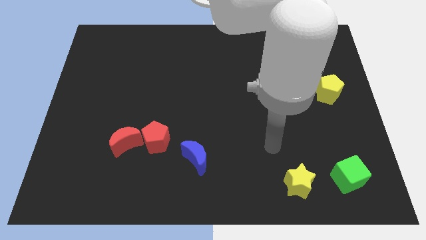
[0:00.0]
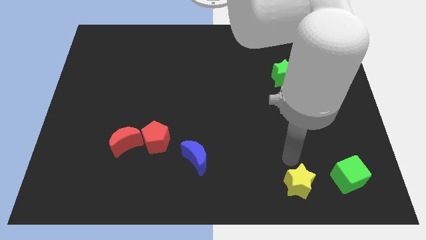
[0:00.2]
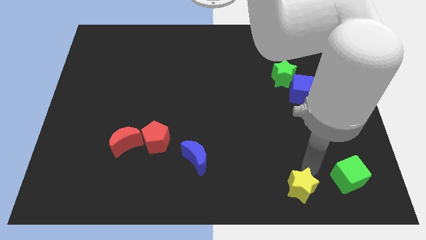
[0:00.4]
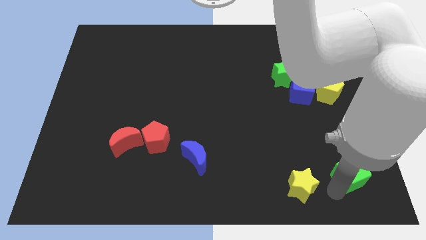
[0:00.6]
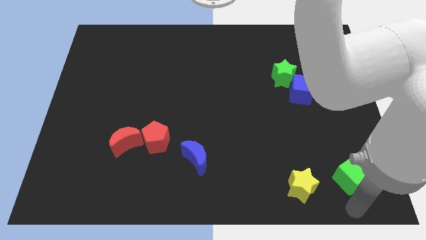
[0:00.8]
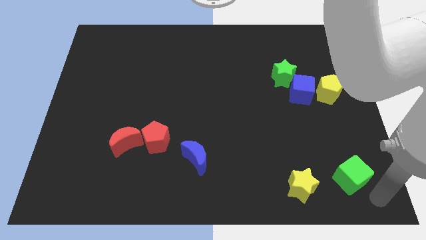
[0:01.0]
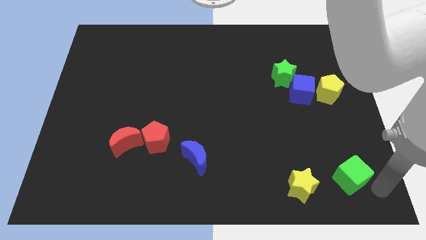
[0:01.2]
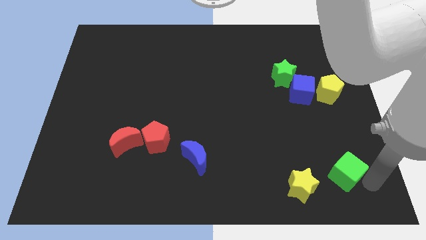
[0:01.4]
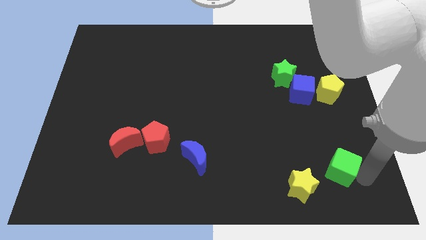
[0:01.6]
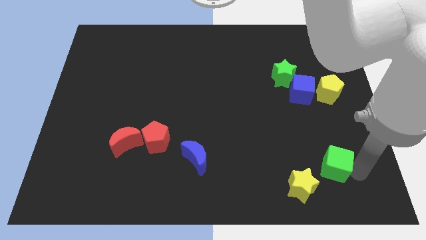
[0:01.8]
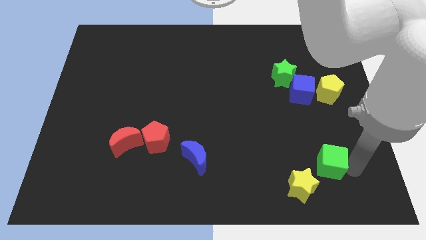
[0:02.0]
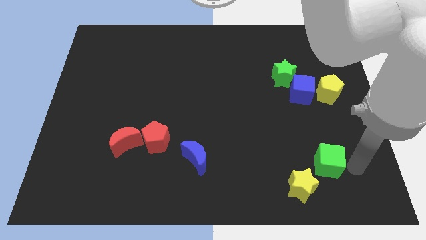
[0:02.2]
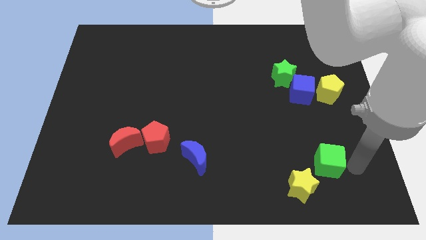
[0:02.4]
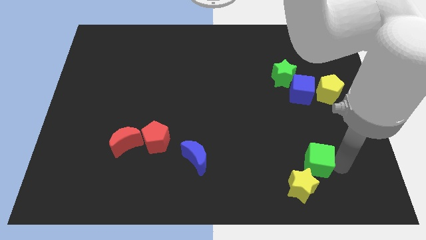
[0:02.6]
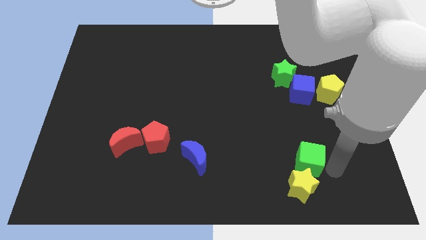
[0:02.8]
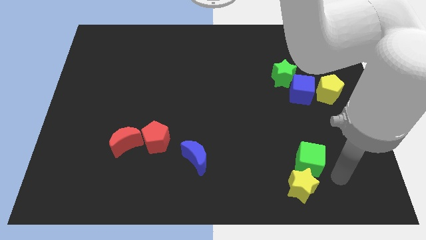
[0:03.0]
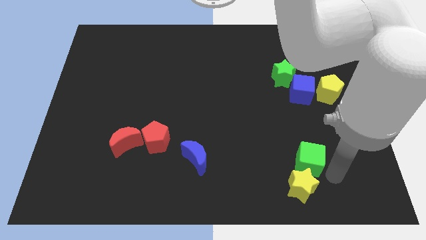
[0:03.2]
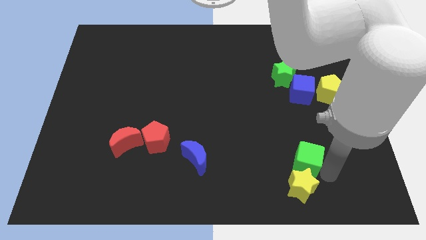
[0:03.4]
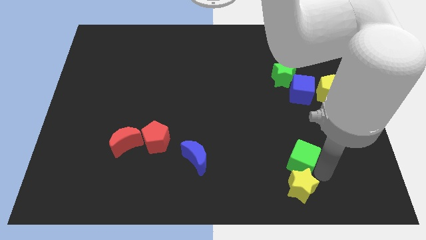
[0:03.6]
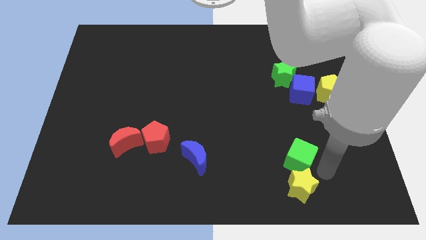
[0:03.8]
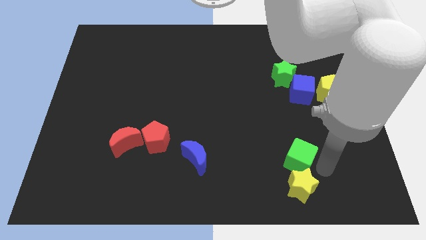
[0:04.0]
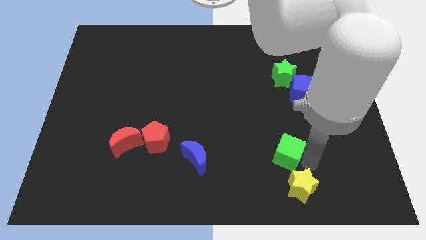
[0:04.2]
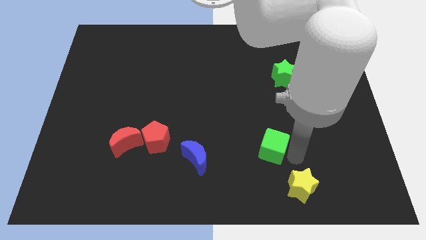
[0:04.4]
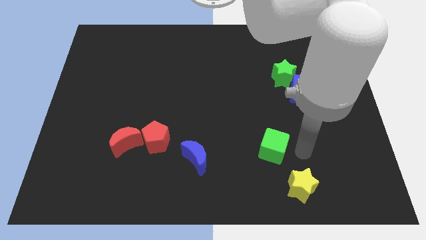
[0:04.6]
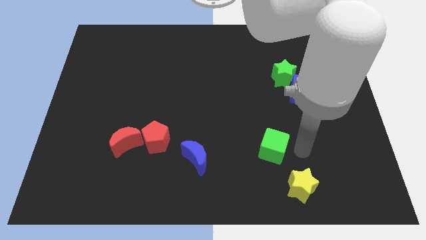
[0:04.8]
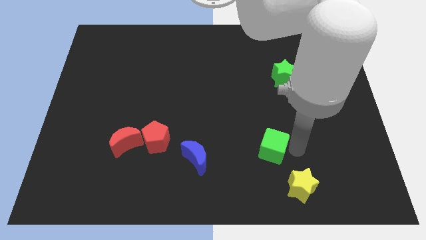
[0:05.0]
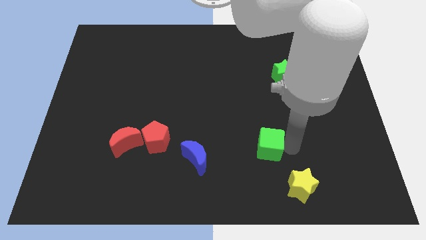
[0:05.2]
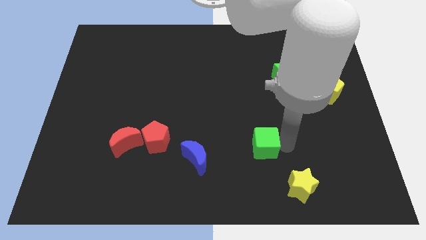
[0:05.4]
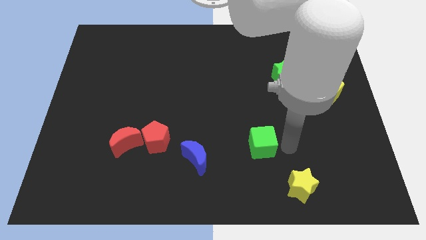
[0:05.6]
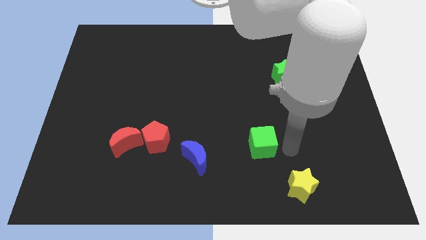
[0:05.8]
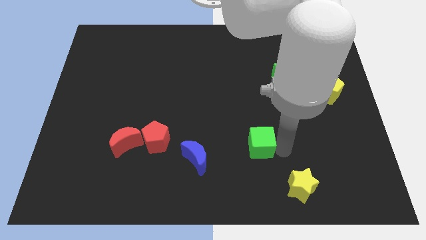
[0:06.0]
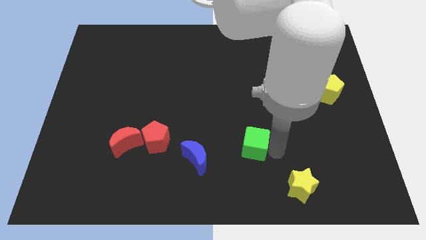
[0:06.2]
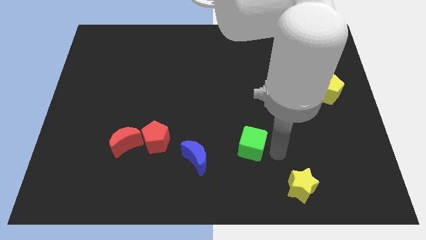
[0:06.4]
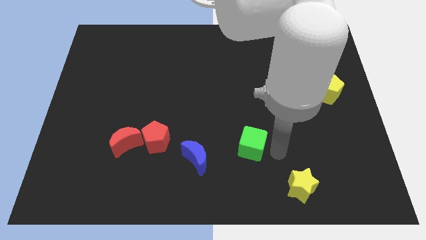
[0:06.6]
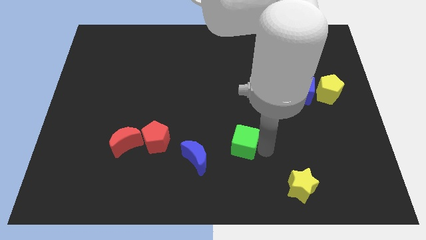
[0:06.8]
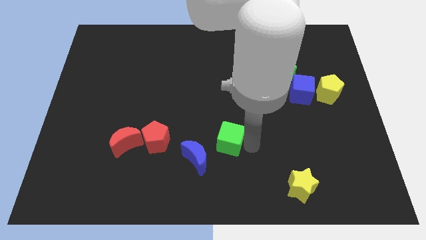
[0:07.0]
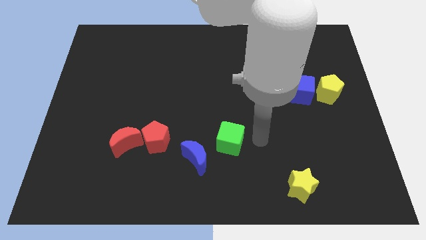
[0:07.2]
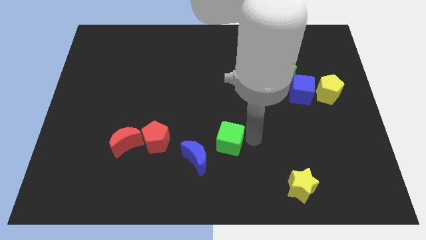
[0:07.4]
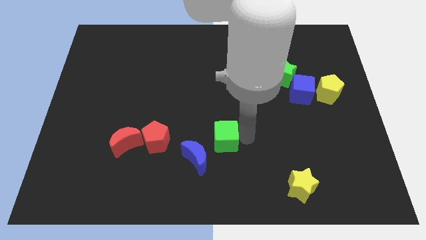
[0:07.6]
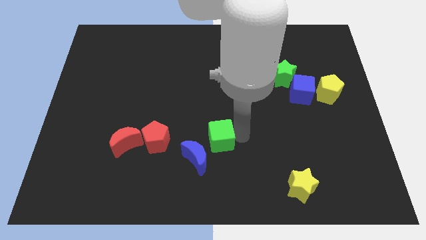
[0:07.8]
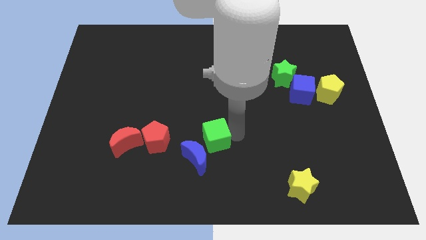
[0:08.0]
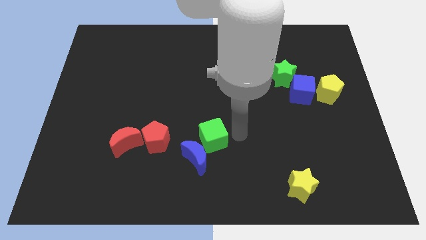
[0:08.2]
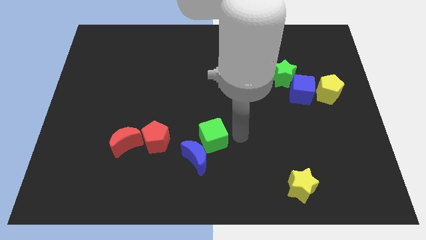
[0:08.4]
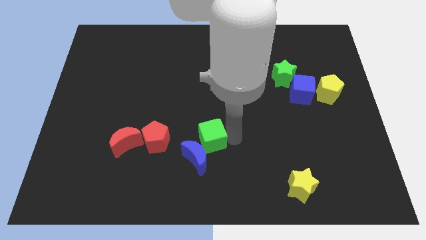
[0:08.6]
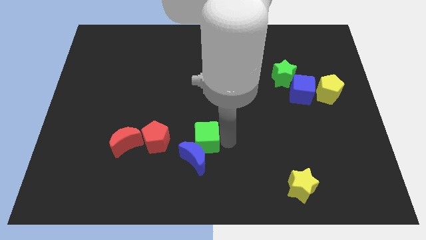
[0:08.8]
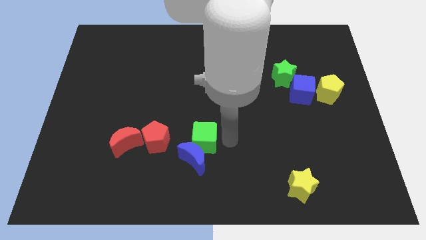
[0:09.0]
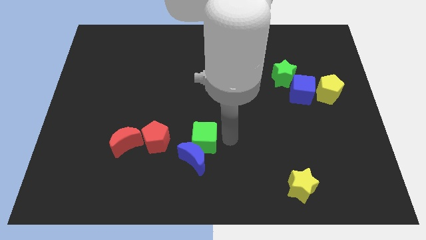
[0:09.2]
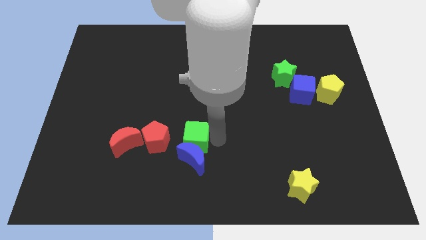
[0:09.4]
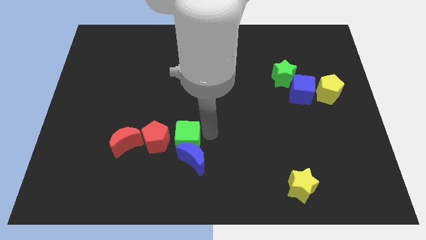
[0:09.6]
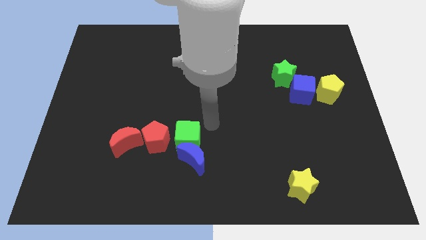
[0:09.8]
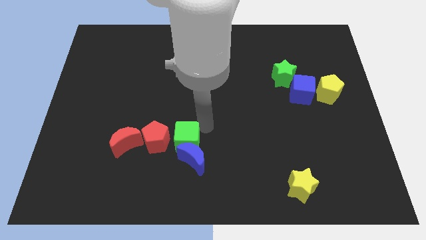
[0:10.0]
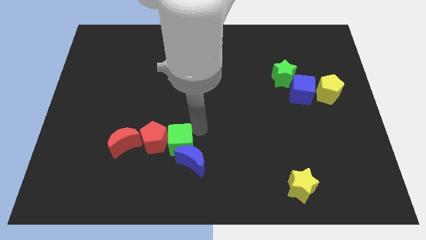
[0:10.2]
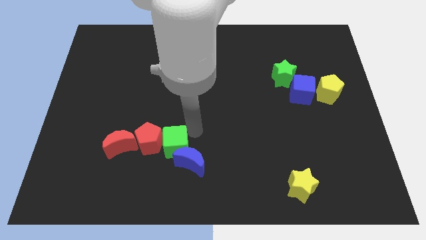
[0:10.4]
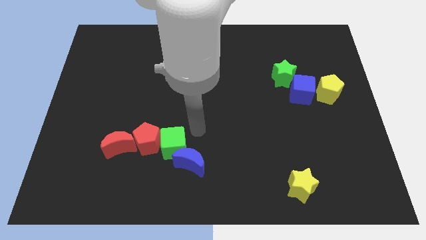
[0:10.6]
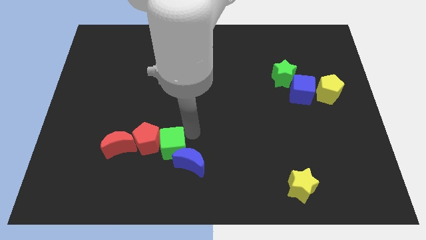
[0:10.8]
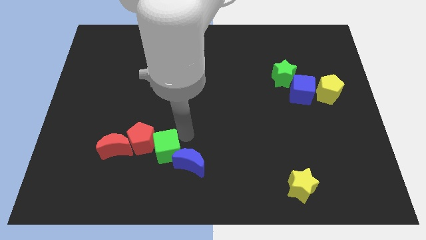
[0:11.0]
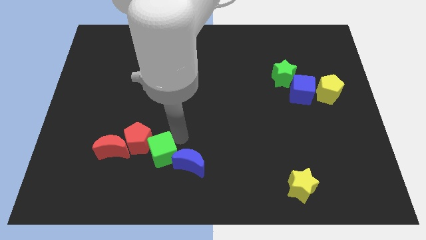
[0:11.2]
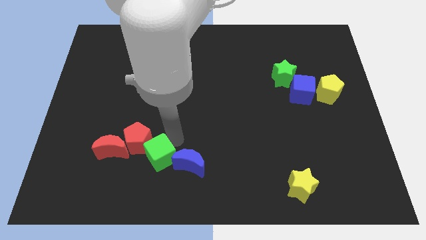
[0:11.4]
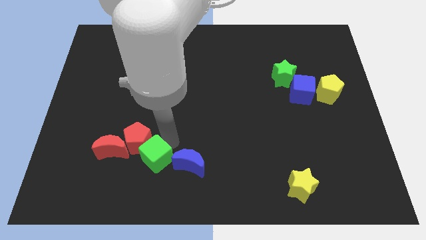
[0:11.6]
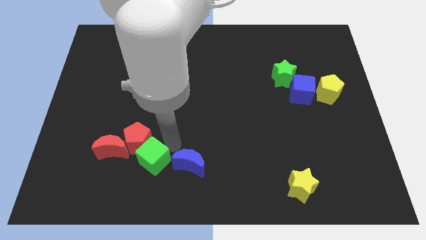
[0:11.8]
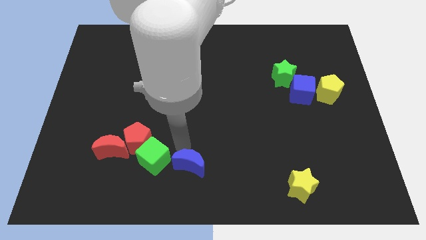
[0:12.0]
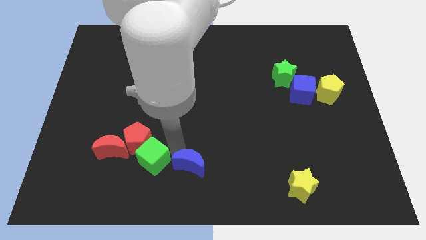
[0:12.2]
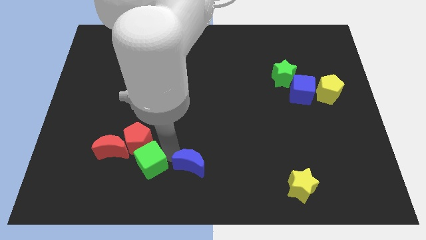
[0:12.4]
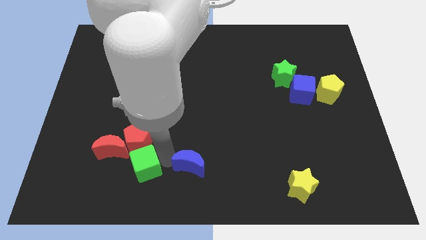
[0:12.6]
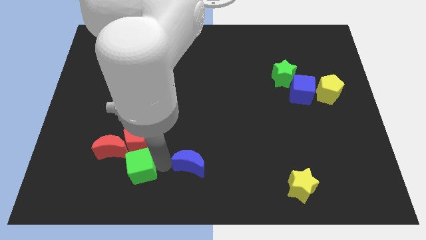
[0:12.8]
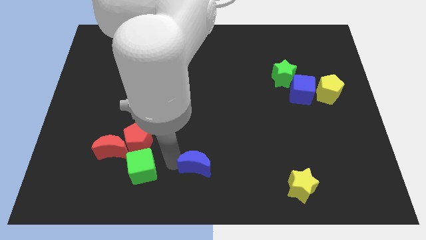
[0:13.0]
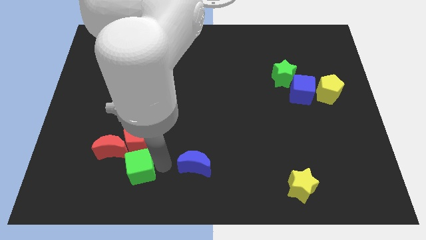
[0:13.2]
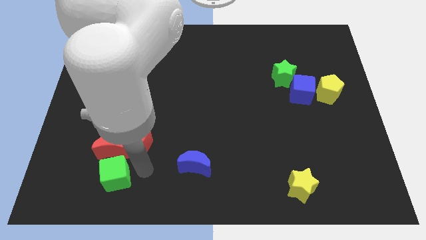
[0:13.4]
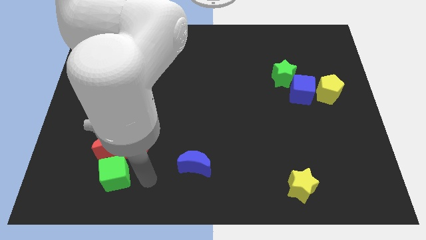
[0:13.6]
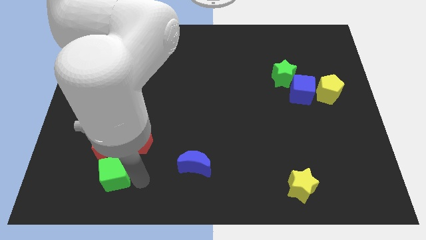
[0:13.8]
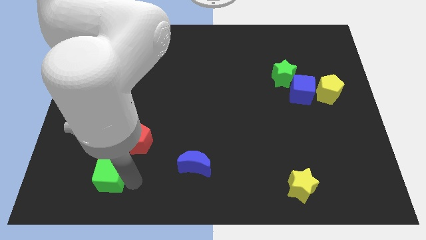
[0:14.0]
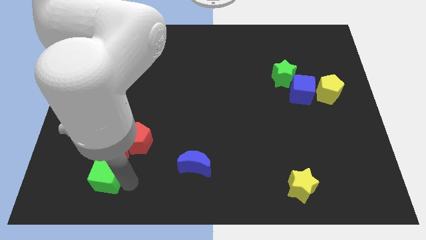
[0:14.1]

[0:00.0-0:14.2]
push the green cube to the bottom left side of the red moon

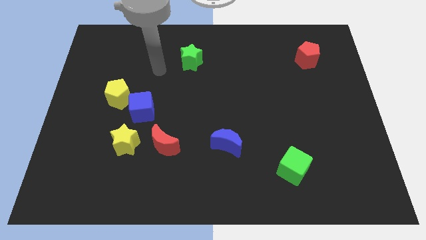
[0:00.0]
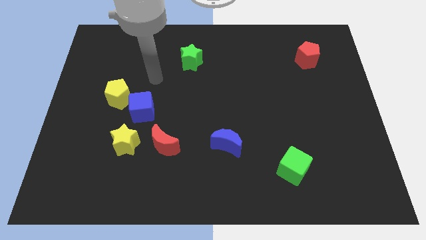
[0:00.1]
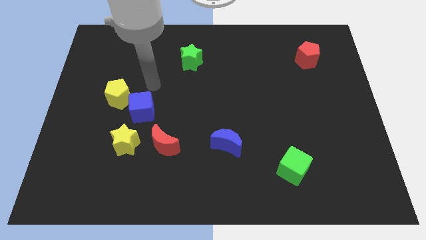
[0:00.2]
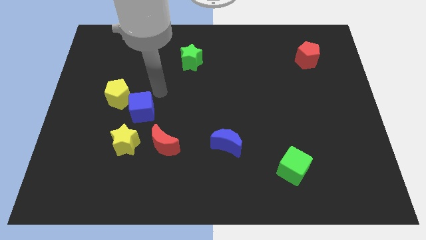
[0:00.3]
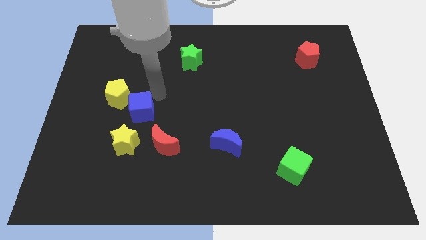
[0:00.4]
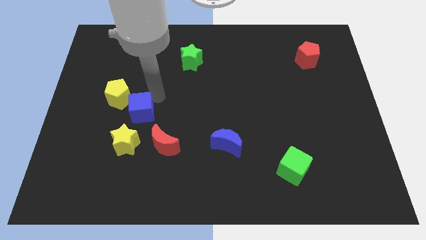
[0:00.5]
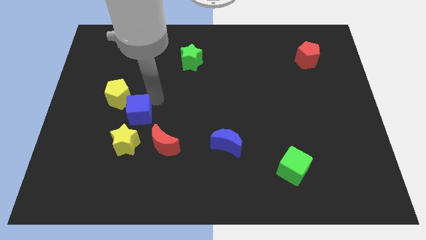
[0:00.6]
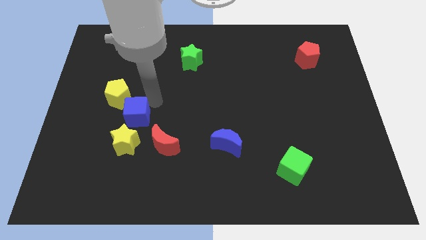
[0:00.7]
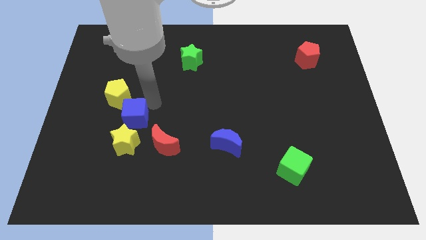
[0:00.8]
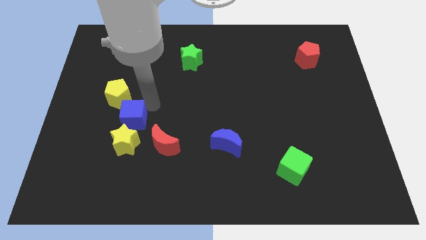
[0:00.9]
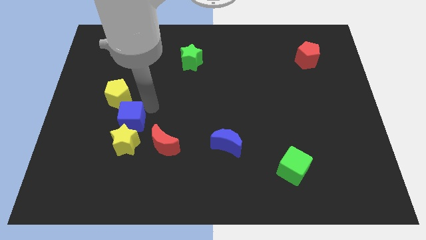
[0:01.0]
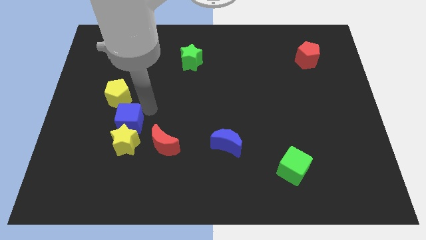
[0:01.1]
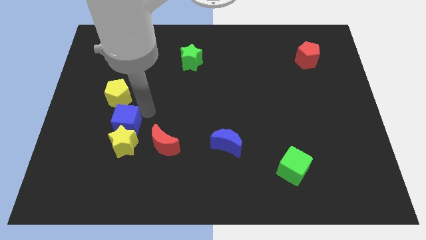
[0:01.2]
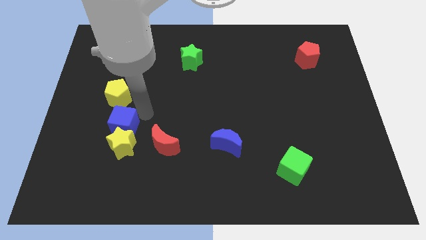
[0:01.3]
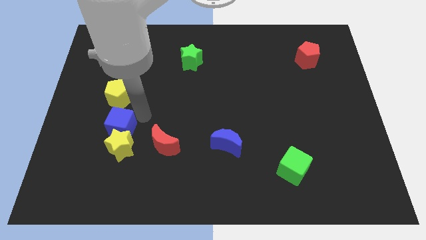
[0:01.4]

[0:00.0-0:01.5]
put the blue cube just left of the red moon
